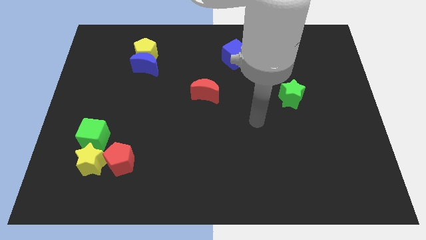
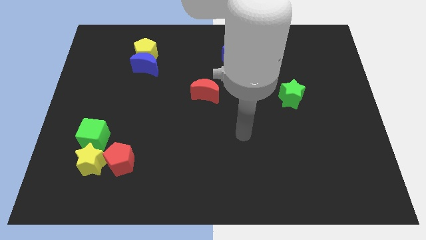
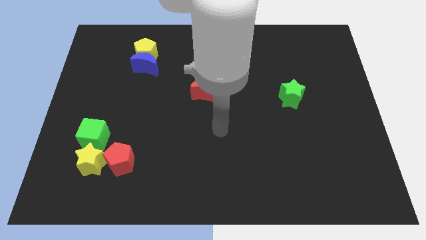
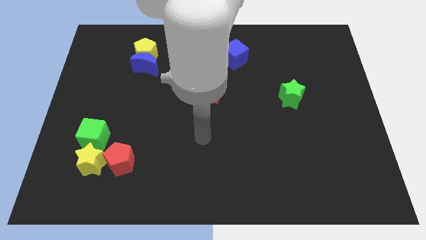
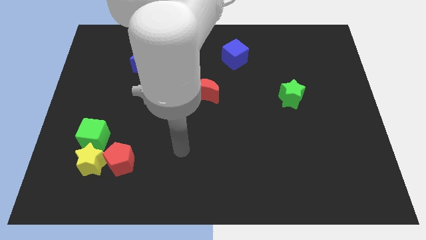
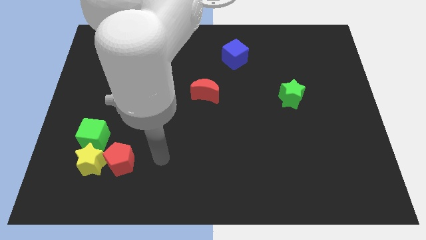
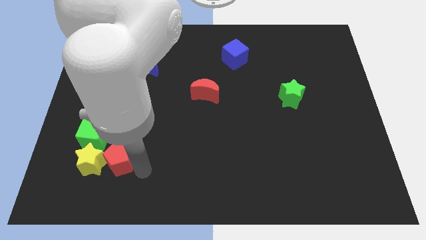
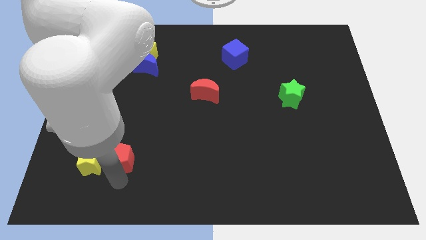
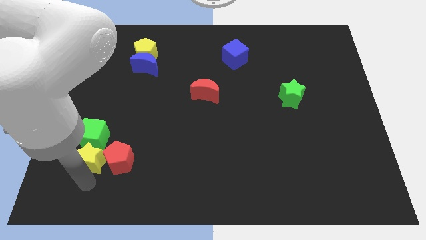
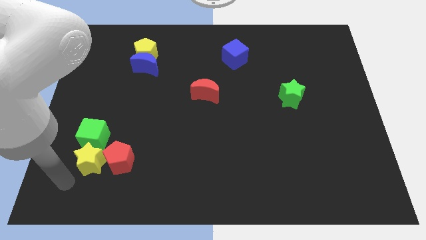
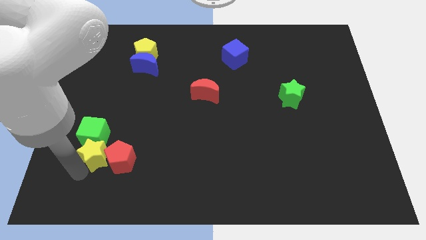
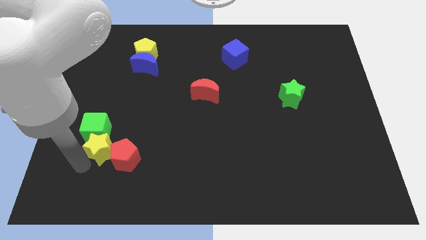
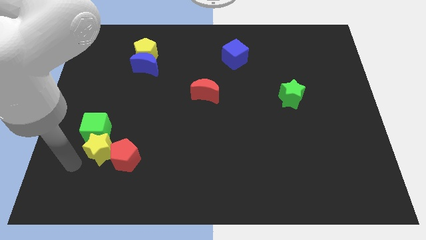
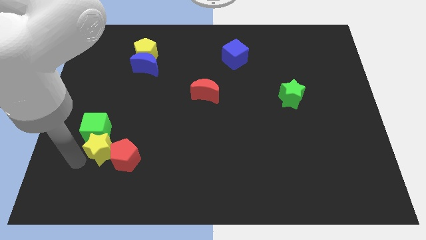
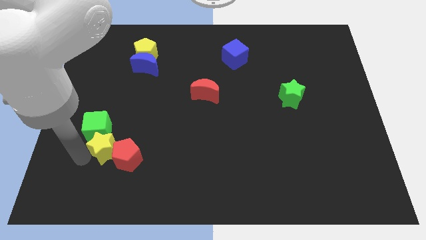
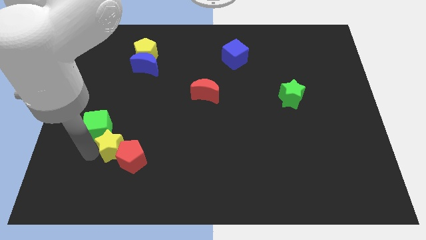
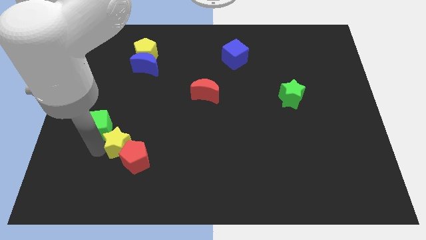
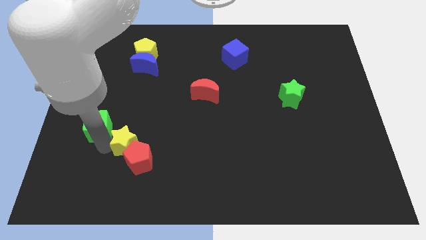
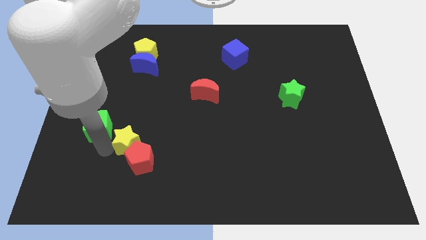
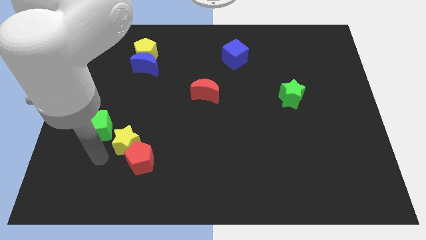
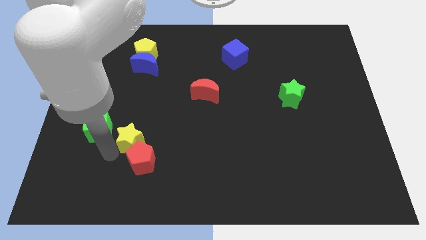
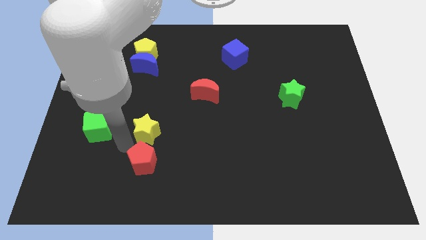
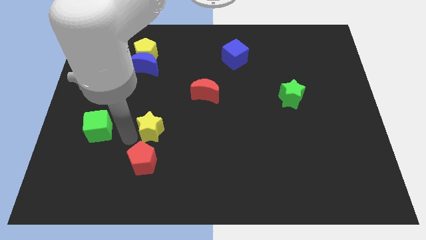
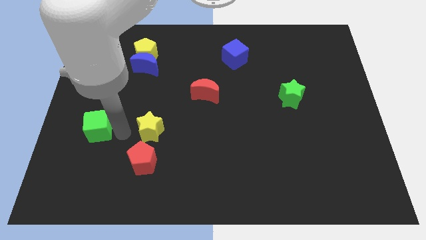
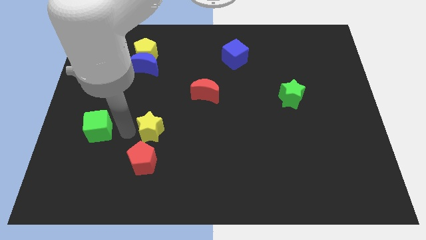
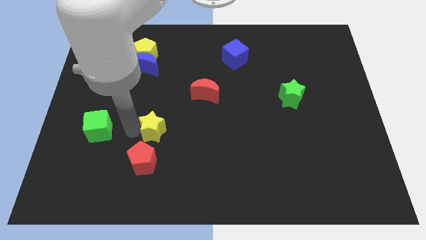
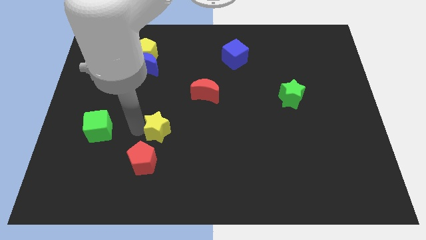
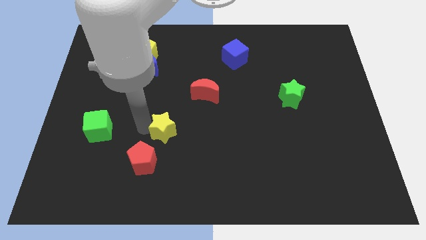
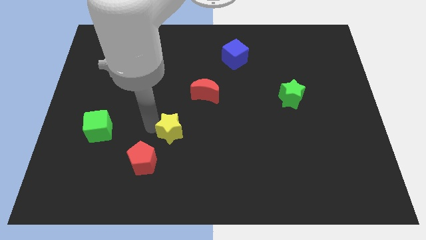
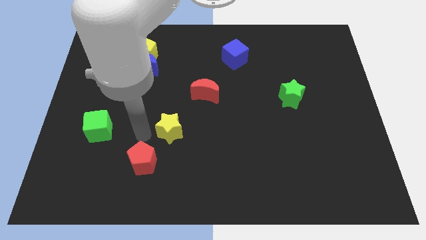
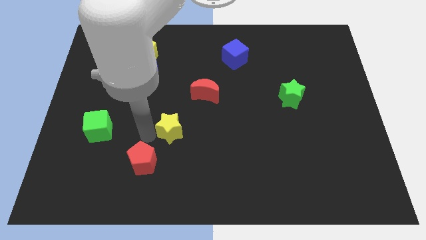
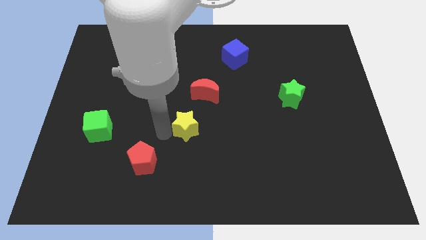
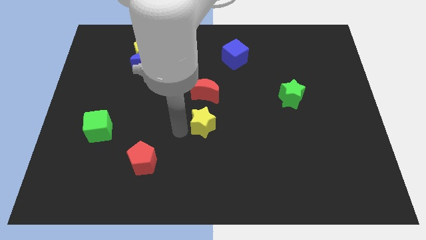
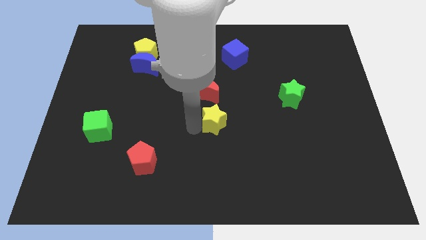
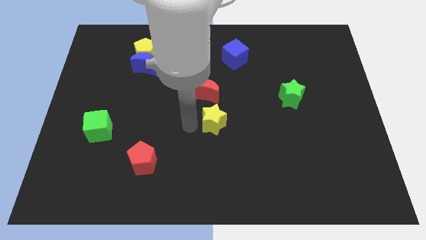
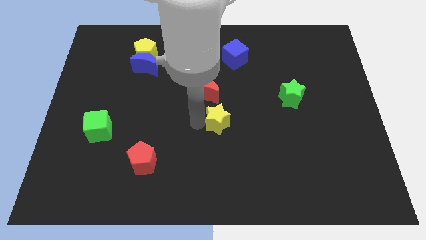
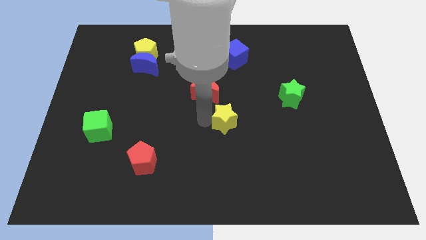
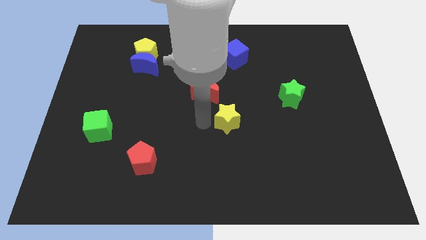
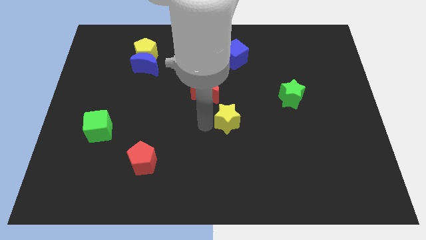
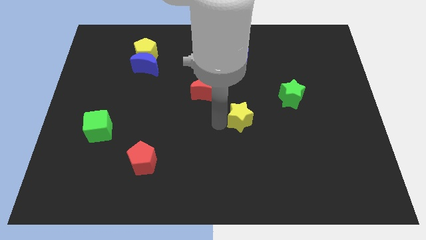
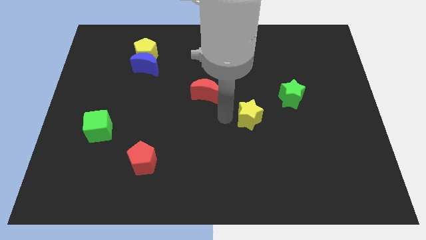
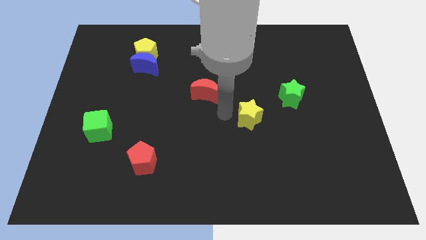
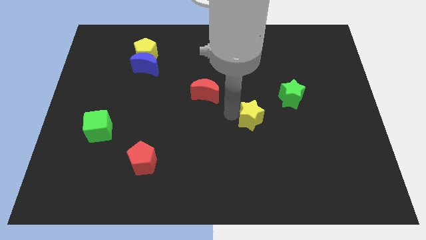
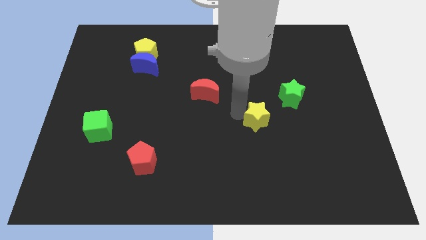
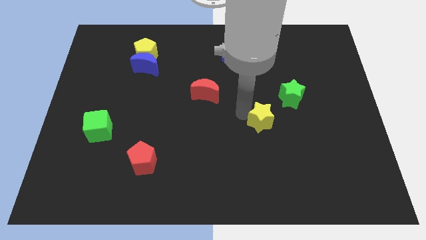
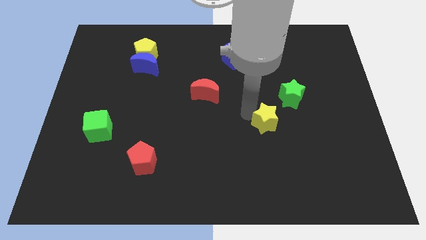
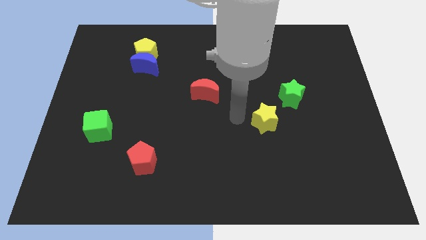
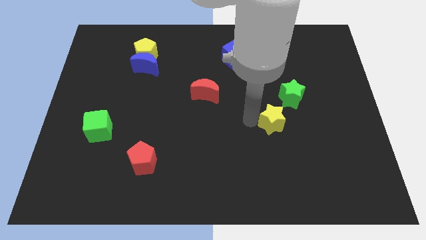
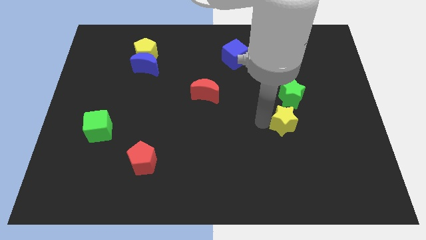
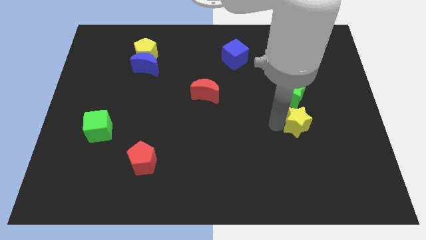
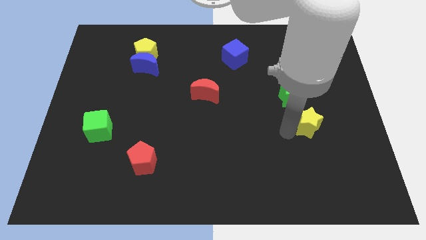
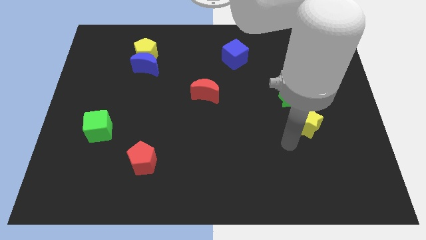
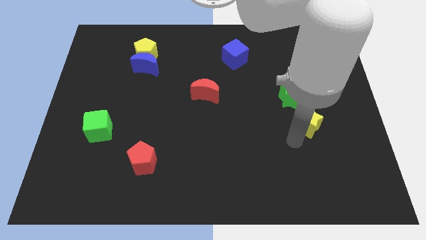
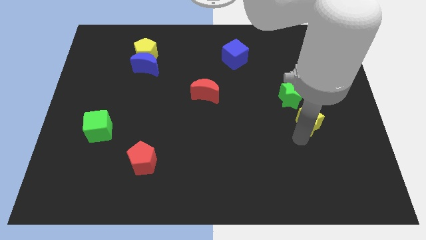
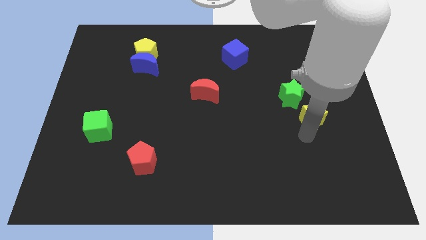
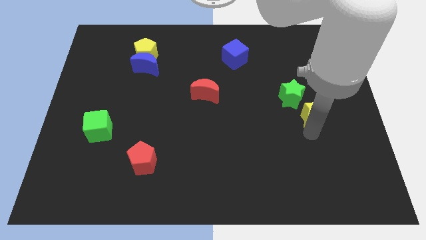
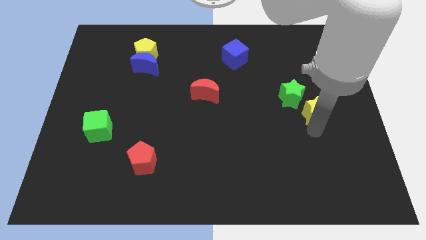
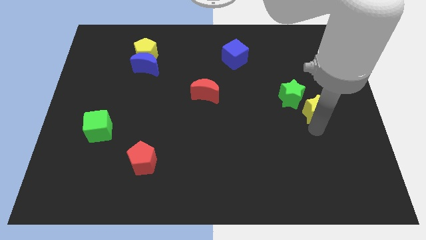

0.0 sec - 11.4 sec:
slide the yellow star just right of the green star

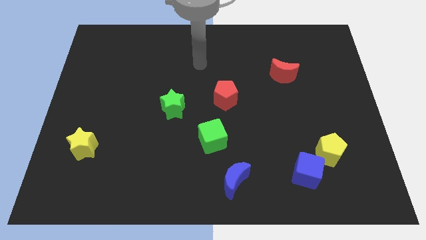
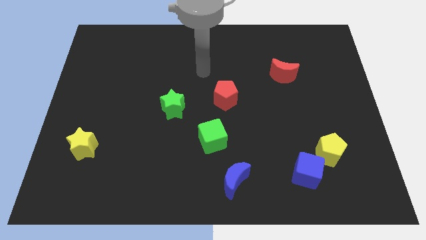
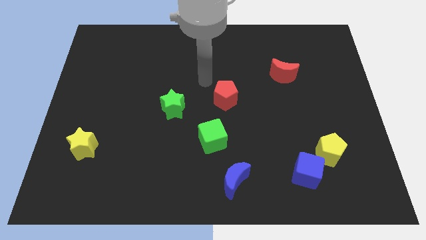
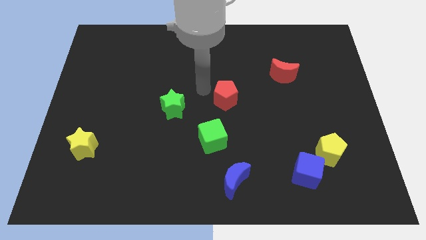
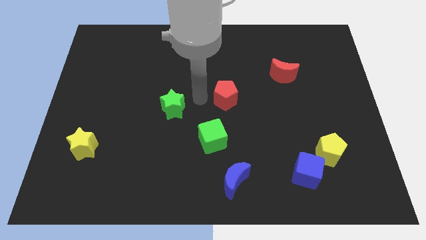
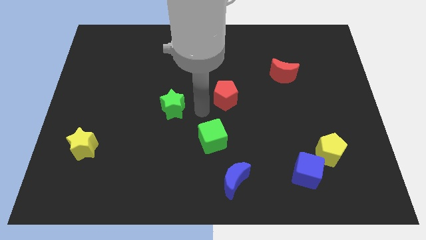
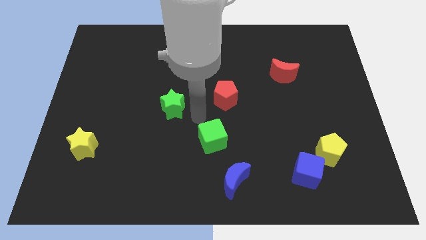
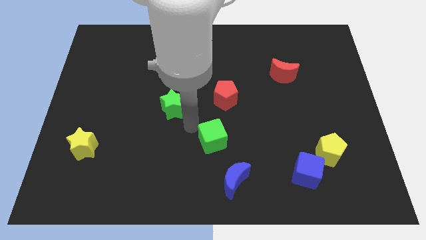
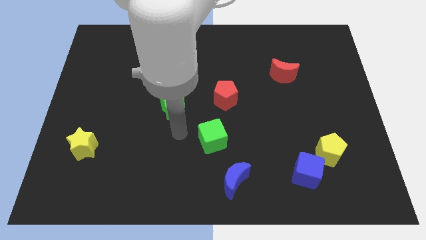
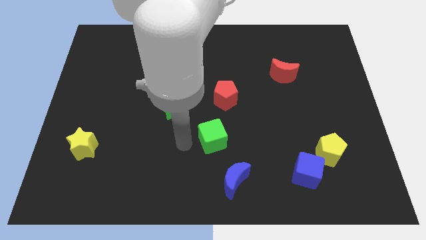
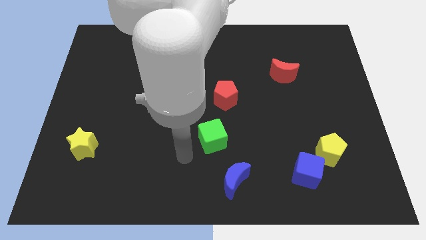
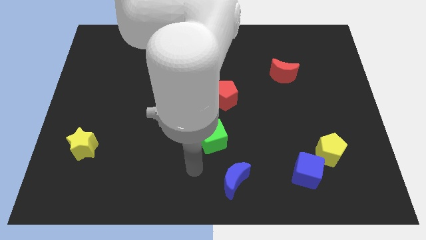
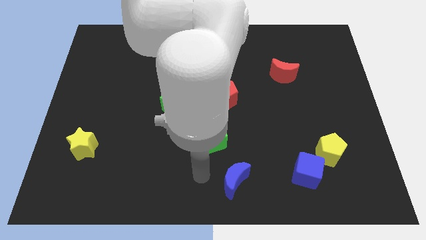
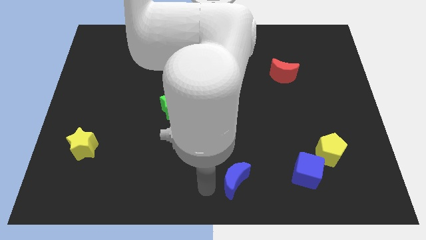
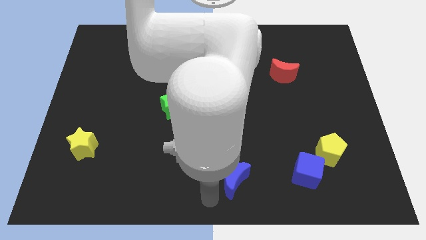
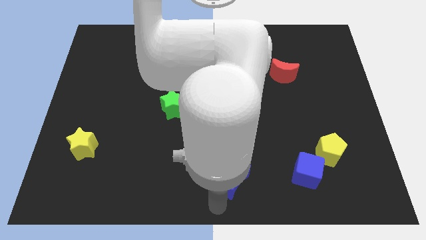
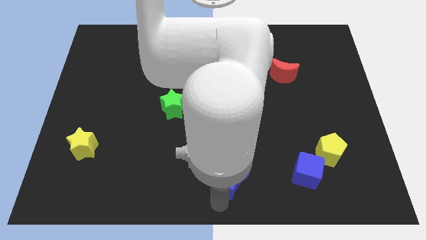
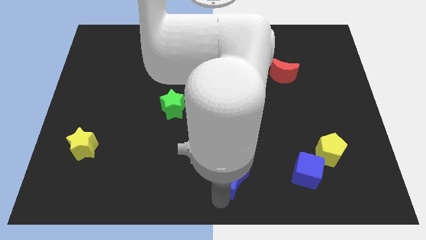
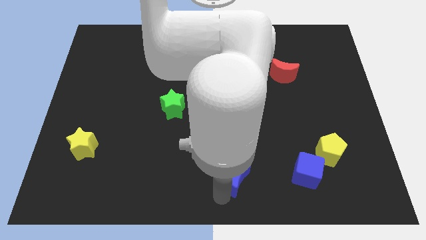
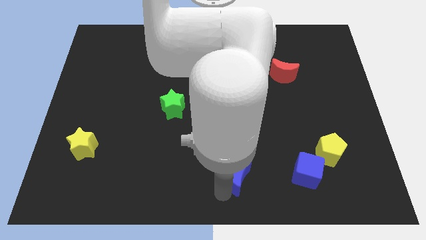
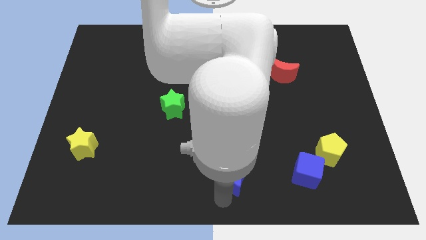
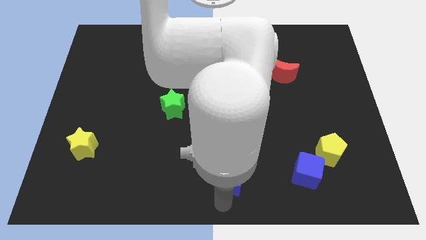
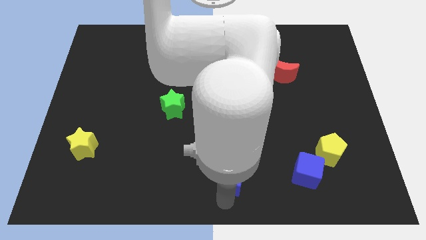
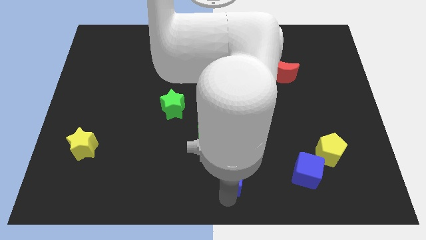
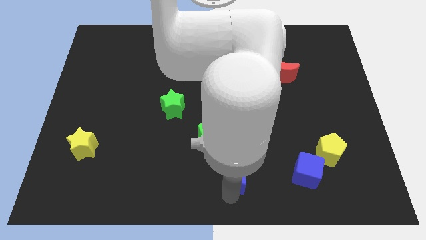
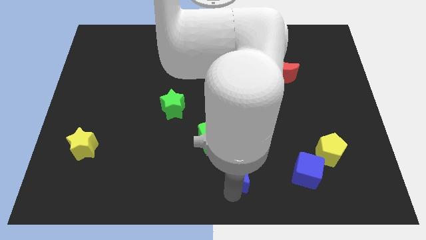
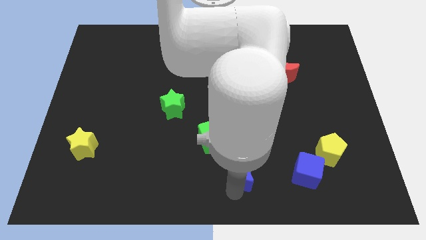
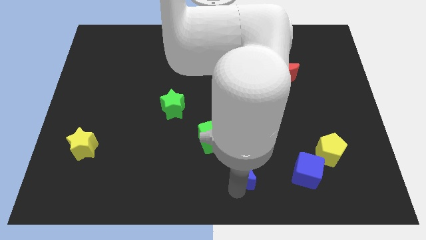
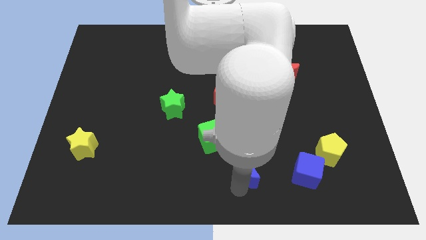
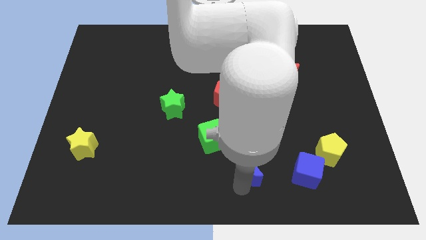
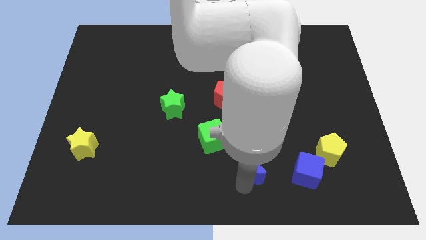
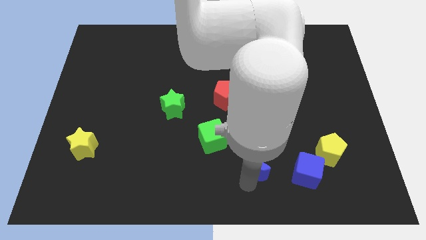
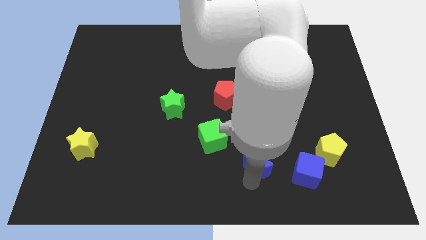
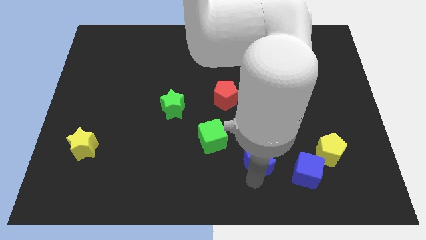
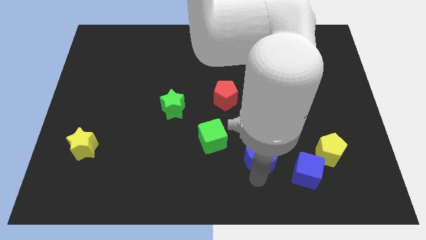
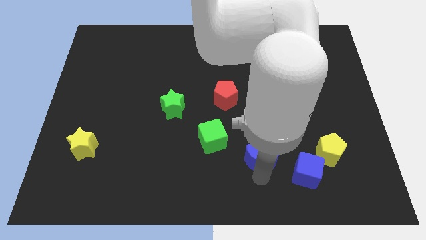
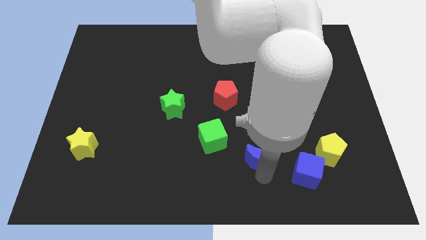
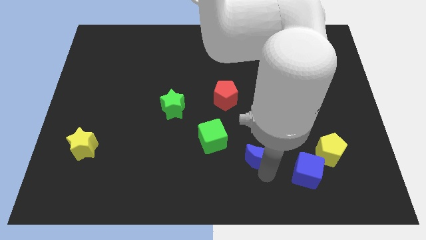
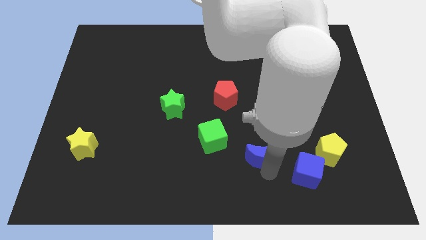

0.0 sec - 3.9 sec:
move the blue moon right of the green cube
